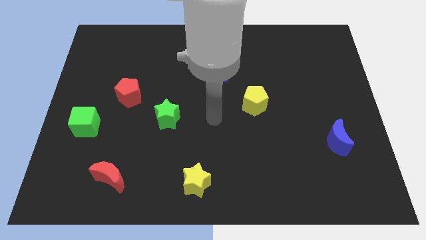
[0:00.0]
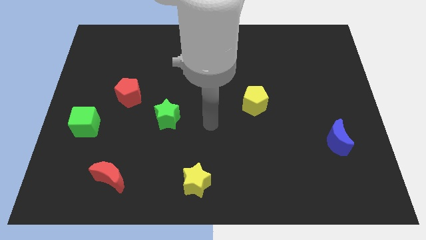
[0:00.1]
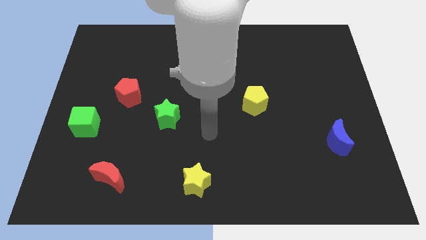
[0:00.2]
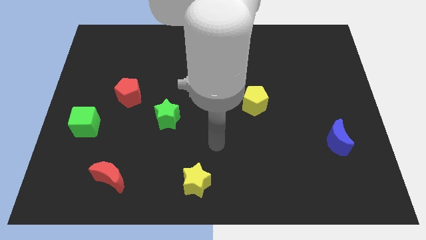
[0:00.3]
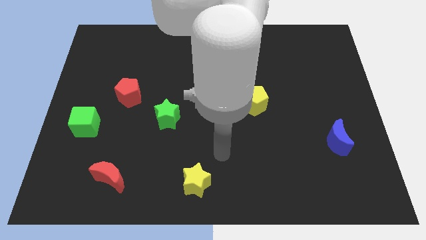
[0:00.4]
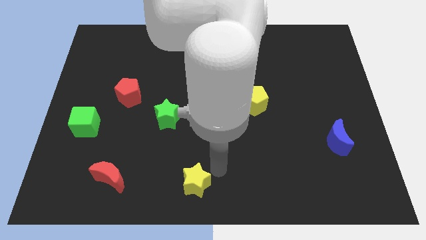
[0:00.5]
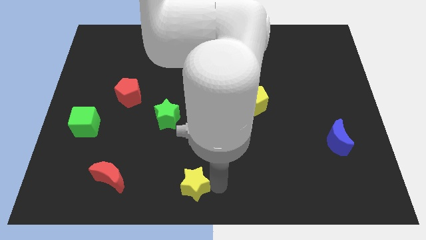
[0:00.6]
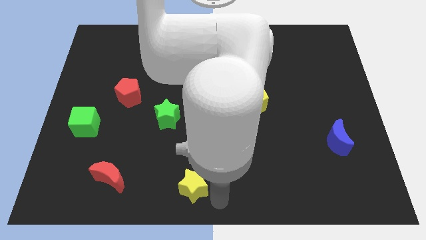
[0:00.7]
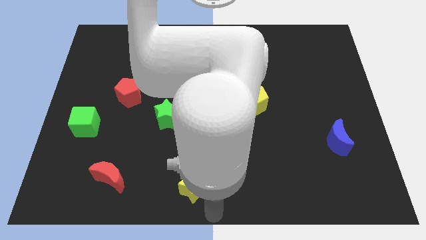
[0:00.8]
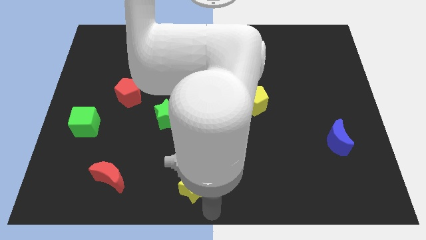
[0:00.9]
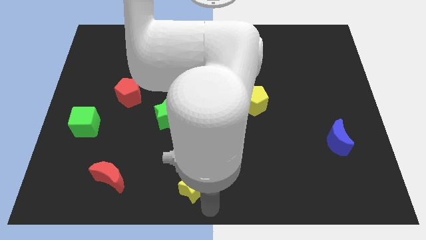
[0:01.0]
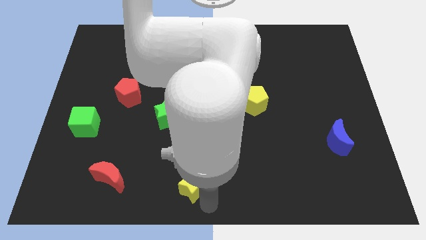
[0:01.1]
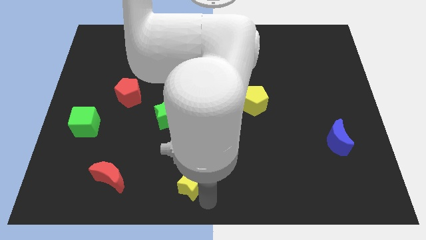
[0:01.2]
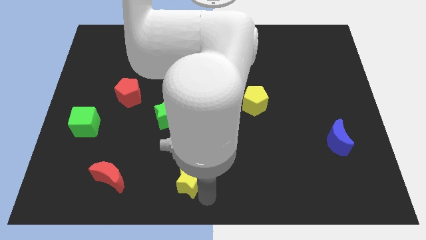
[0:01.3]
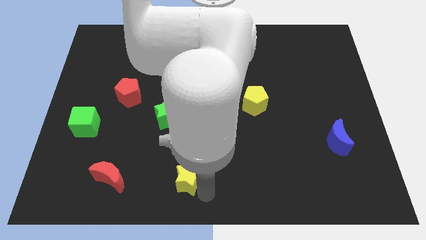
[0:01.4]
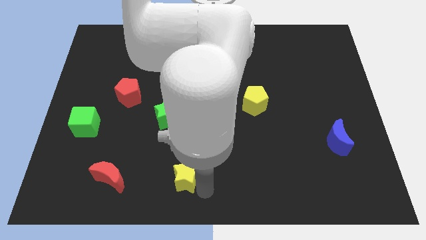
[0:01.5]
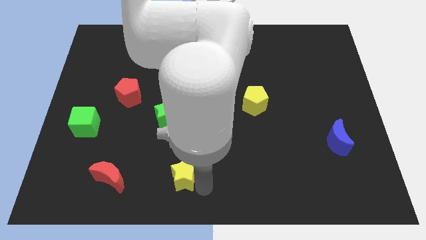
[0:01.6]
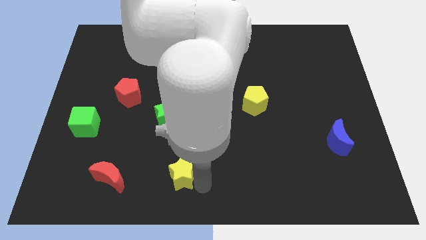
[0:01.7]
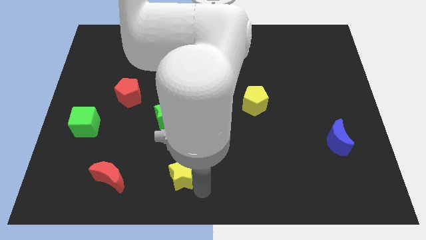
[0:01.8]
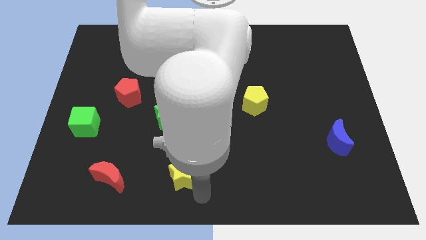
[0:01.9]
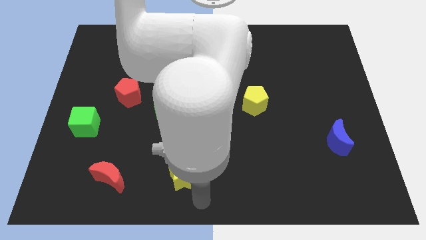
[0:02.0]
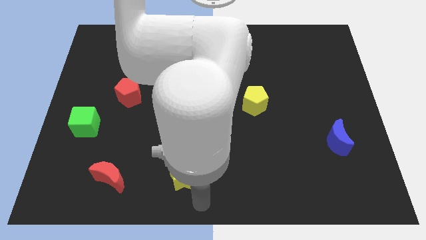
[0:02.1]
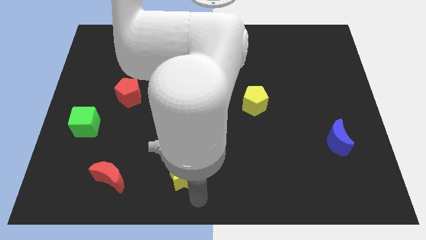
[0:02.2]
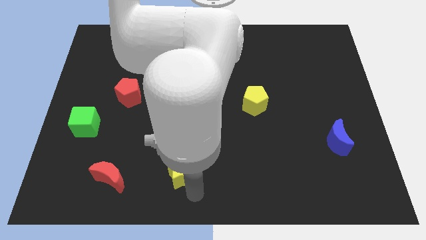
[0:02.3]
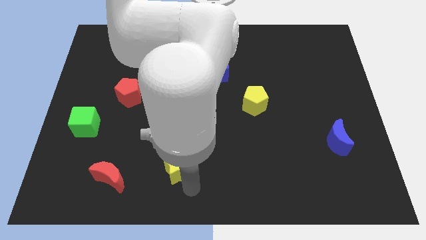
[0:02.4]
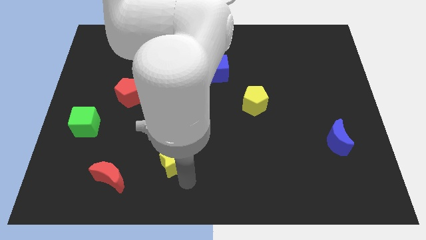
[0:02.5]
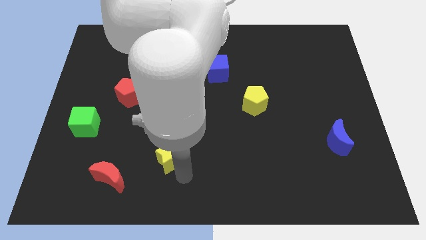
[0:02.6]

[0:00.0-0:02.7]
slightly move the yellow star upwards and left

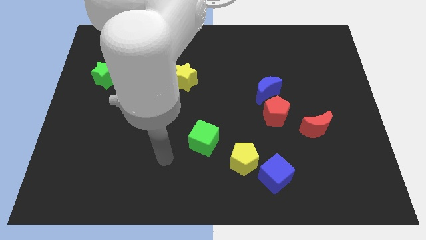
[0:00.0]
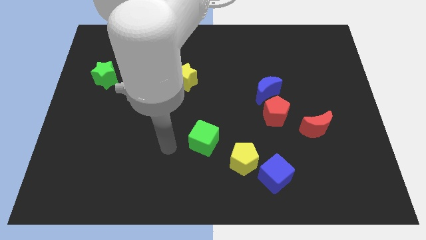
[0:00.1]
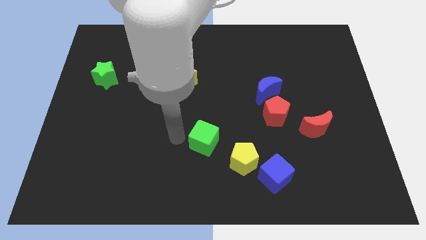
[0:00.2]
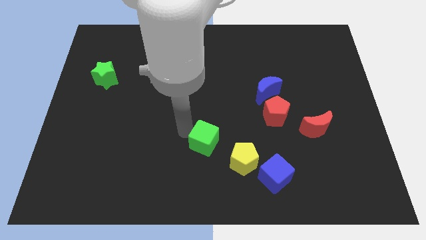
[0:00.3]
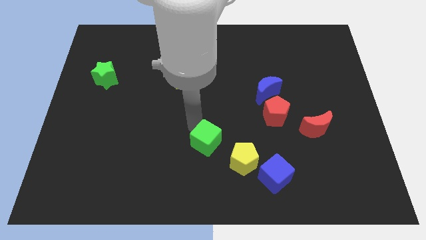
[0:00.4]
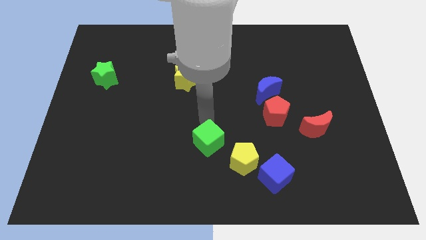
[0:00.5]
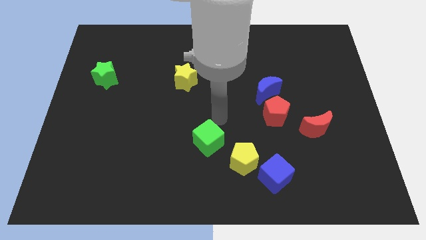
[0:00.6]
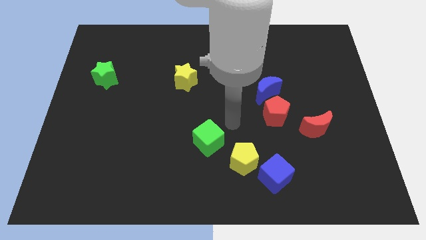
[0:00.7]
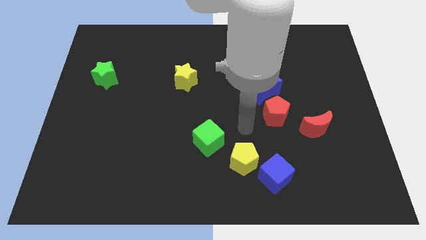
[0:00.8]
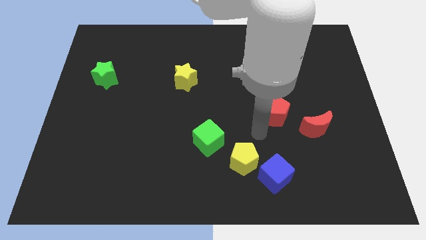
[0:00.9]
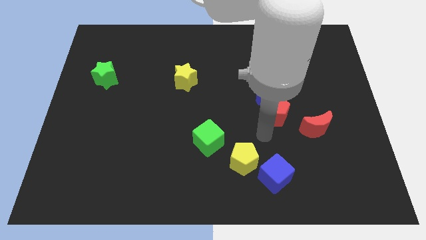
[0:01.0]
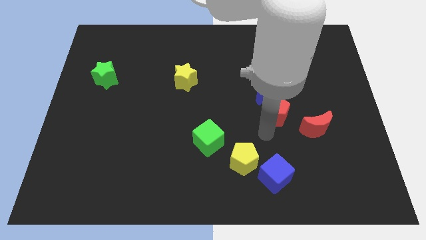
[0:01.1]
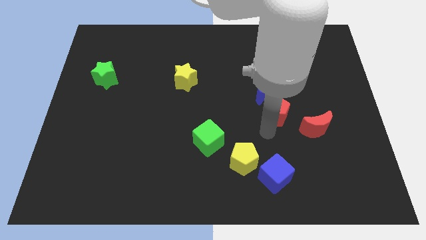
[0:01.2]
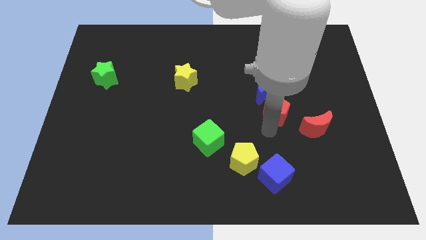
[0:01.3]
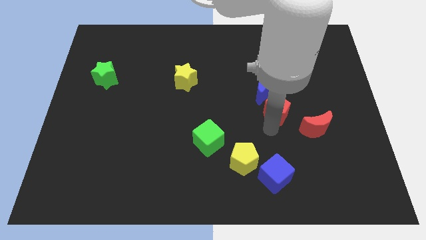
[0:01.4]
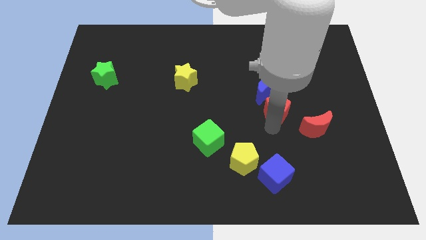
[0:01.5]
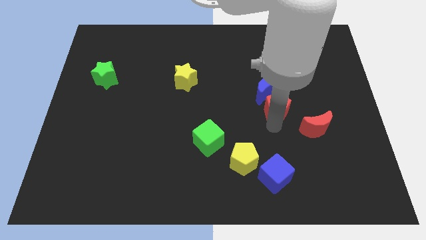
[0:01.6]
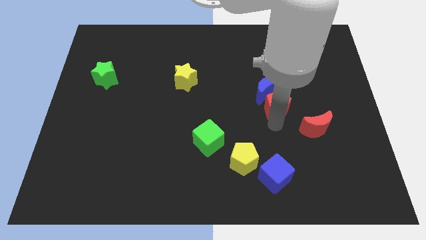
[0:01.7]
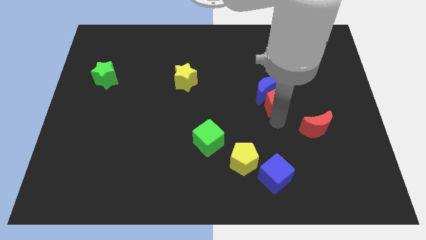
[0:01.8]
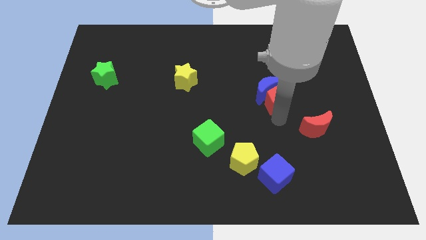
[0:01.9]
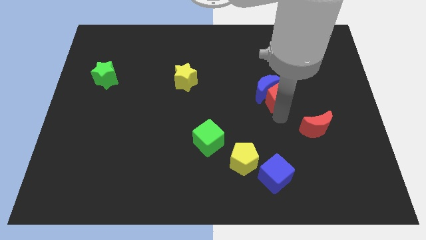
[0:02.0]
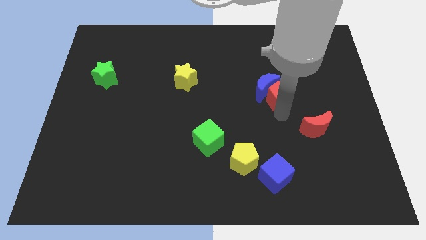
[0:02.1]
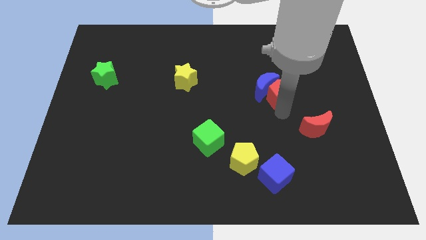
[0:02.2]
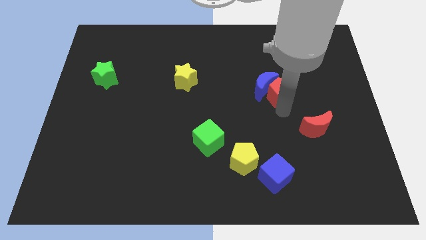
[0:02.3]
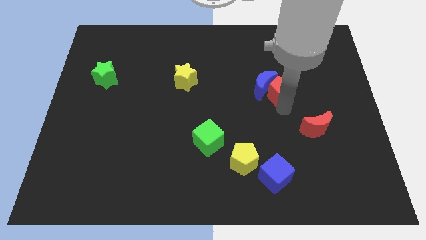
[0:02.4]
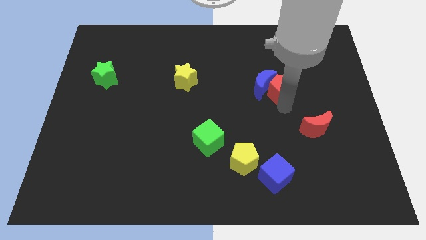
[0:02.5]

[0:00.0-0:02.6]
slide the red pentagon a little up

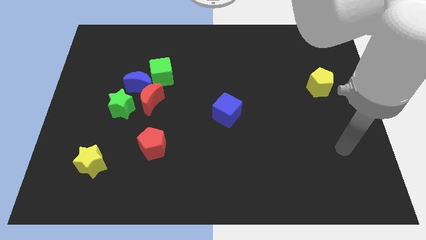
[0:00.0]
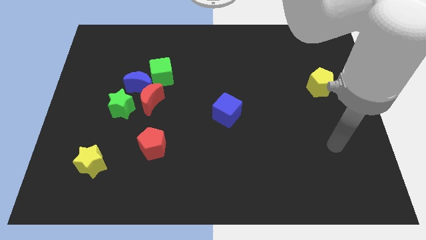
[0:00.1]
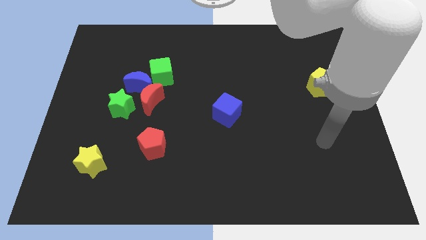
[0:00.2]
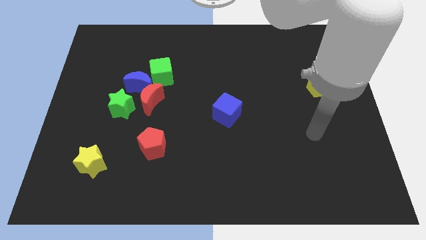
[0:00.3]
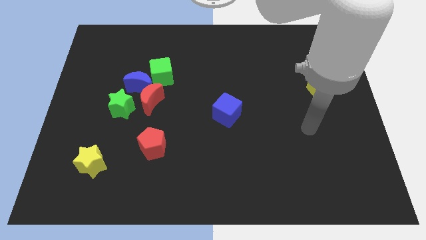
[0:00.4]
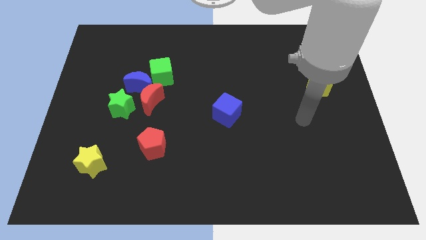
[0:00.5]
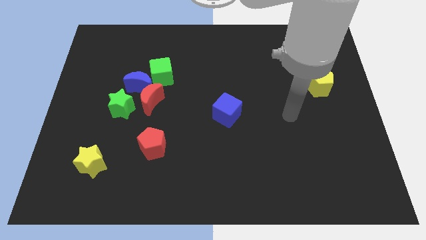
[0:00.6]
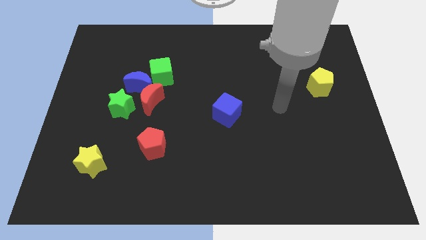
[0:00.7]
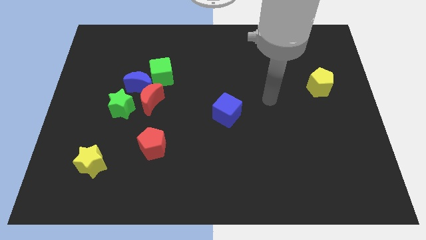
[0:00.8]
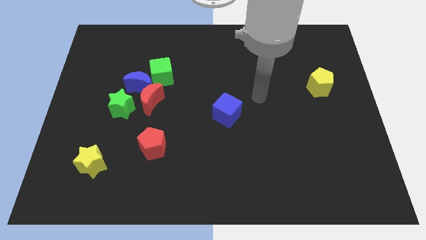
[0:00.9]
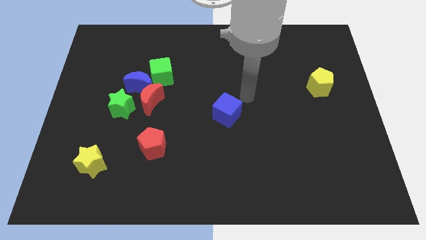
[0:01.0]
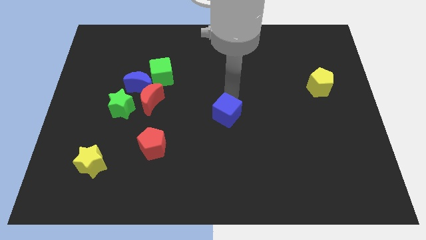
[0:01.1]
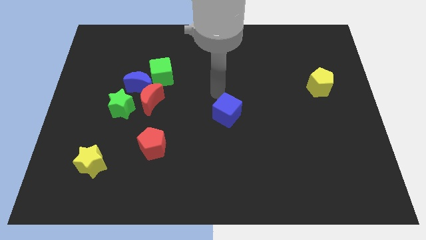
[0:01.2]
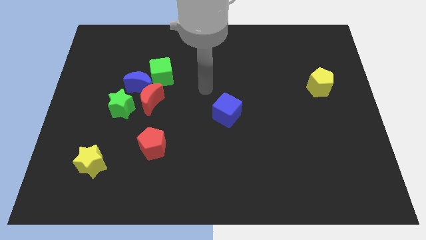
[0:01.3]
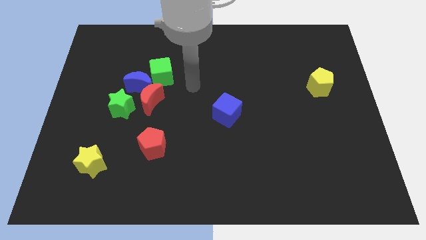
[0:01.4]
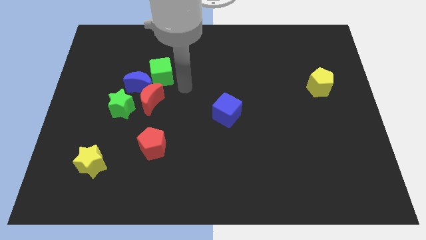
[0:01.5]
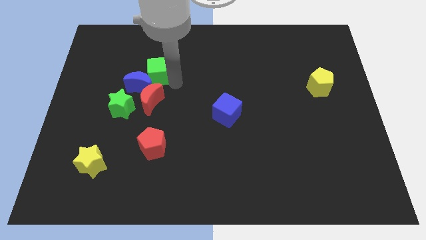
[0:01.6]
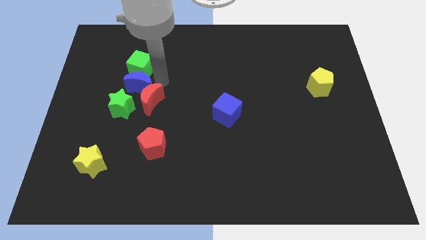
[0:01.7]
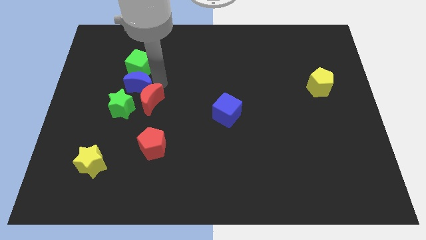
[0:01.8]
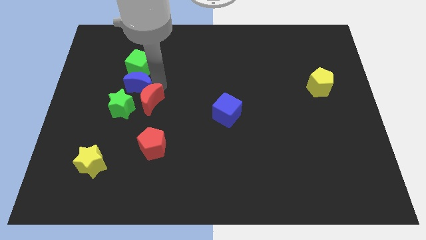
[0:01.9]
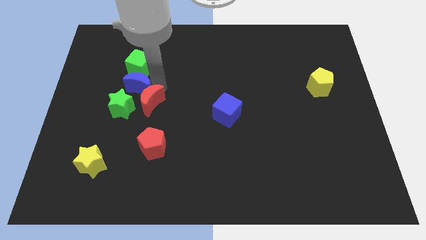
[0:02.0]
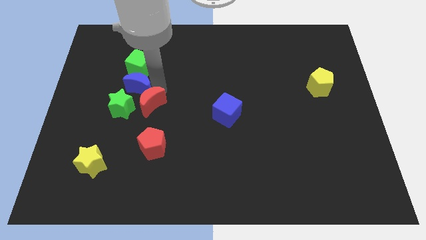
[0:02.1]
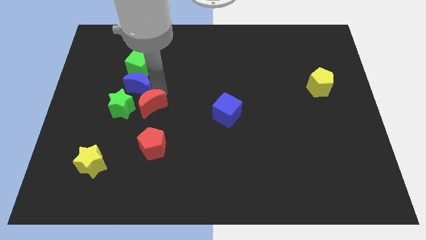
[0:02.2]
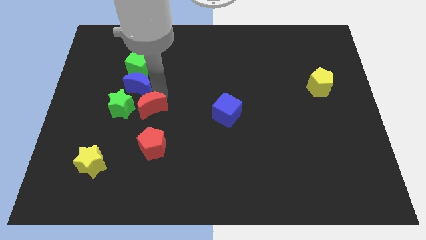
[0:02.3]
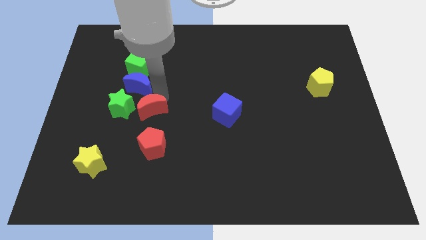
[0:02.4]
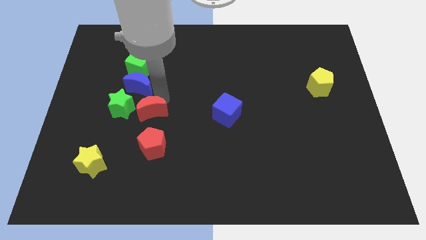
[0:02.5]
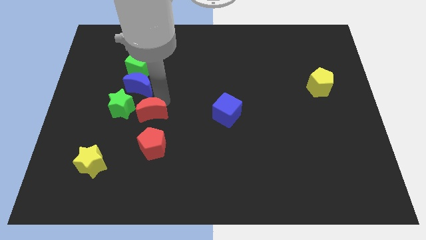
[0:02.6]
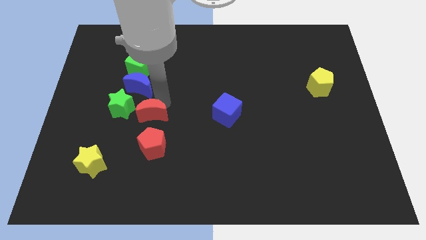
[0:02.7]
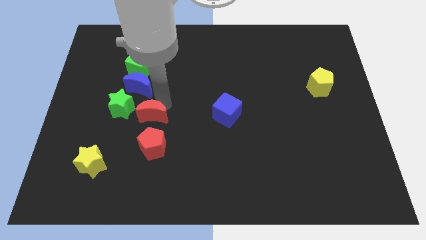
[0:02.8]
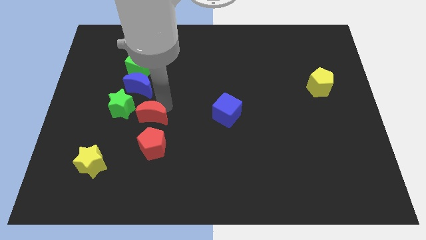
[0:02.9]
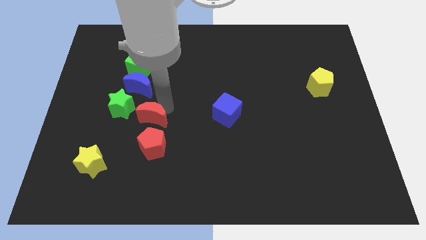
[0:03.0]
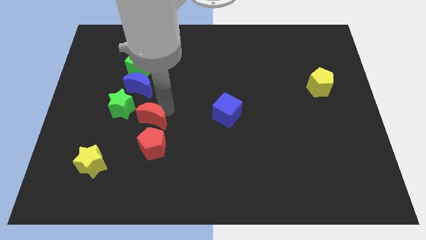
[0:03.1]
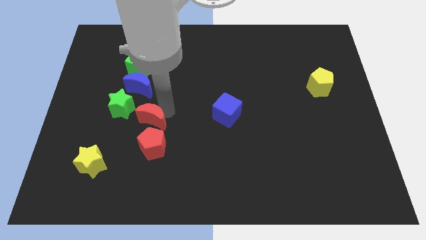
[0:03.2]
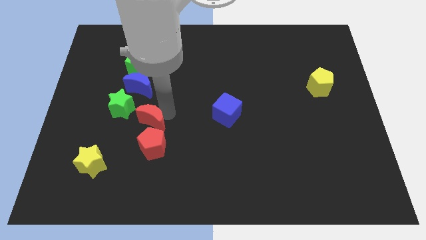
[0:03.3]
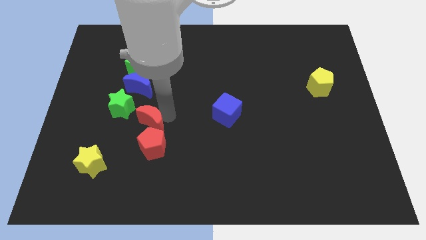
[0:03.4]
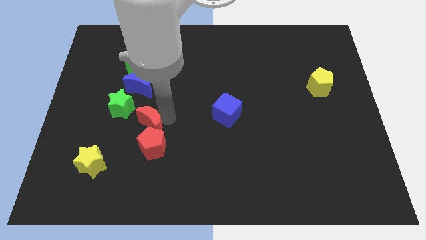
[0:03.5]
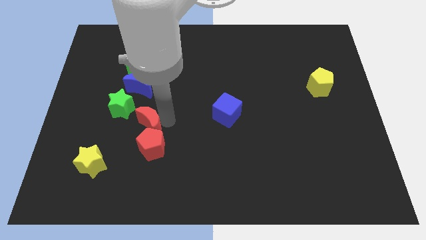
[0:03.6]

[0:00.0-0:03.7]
push the red moon a bit down
